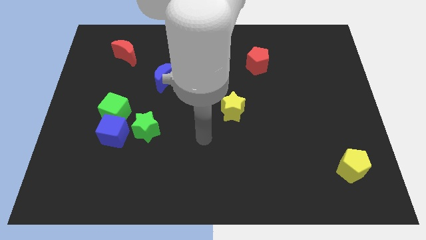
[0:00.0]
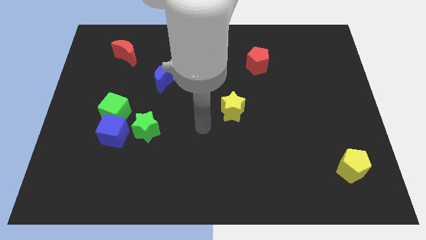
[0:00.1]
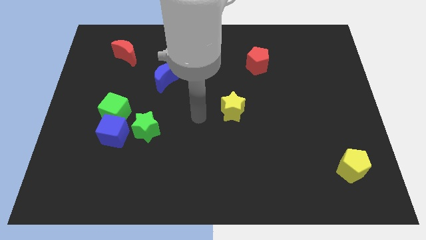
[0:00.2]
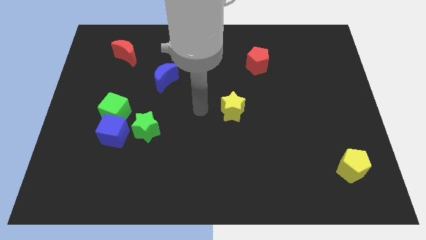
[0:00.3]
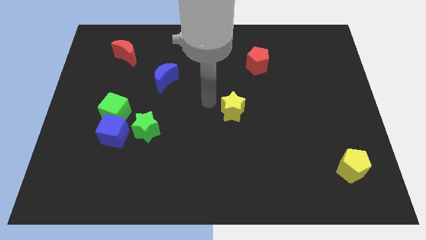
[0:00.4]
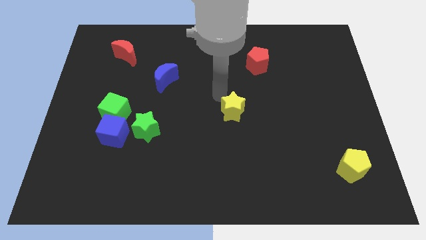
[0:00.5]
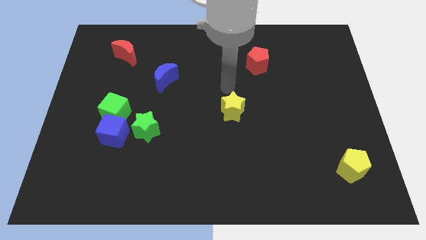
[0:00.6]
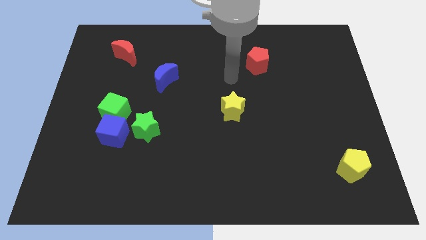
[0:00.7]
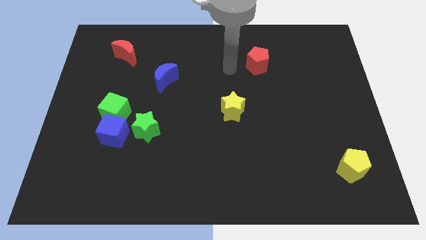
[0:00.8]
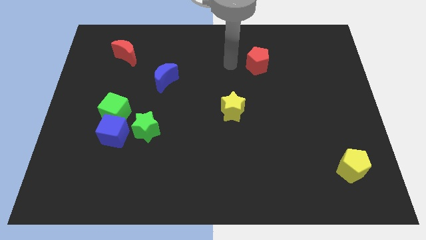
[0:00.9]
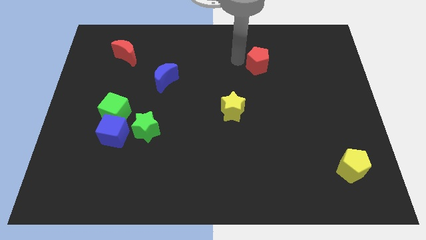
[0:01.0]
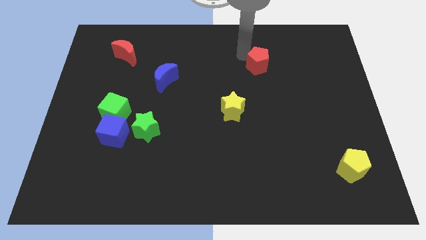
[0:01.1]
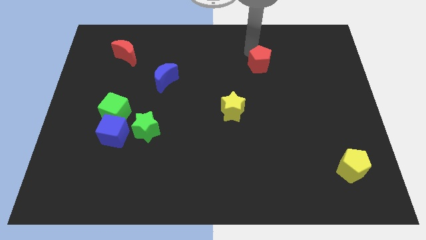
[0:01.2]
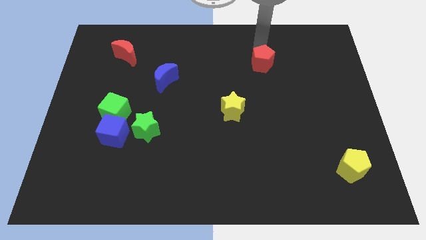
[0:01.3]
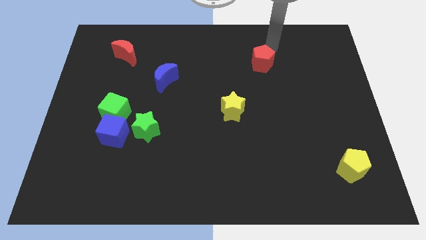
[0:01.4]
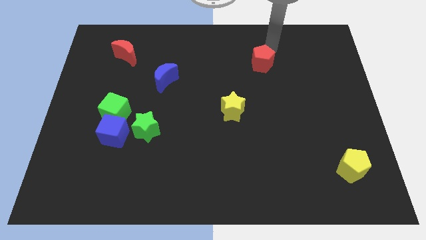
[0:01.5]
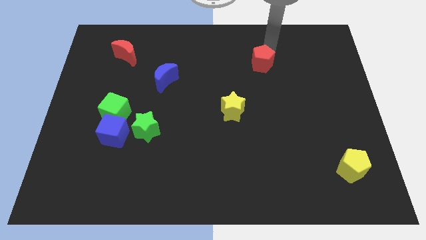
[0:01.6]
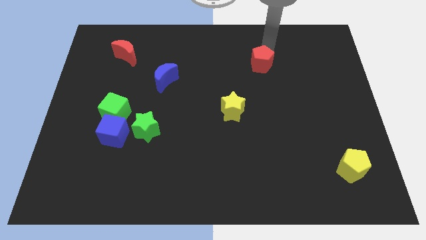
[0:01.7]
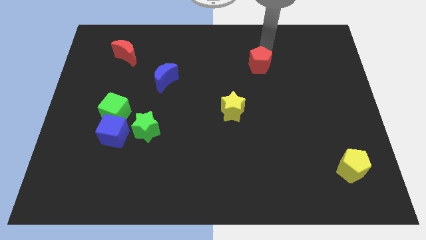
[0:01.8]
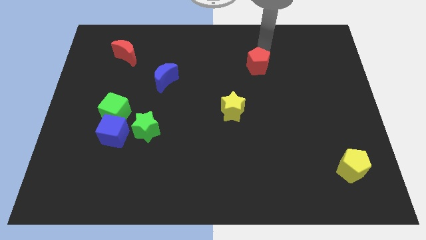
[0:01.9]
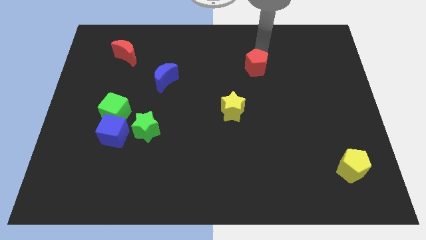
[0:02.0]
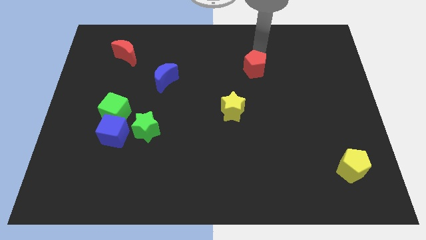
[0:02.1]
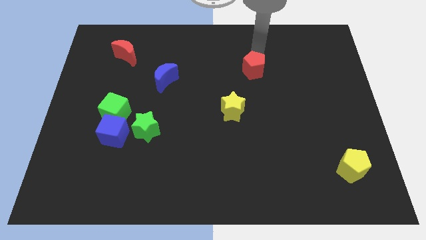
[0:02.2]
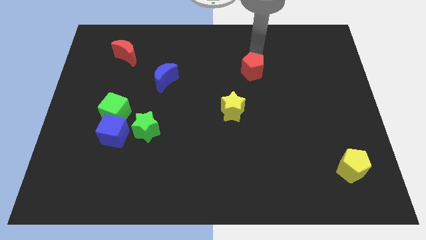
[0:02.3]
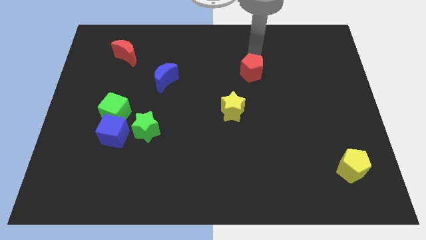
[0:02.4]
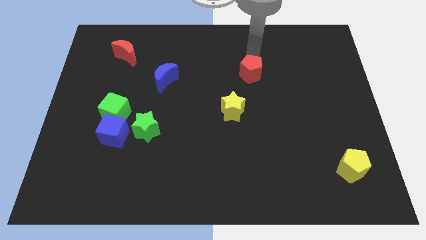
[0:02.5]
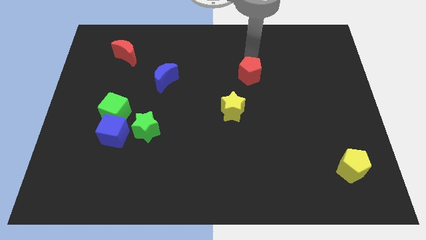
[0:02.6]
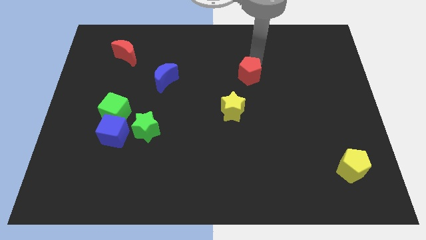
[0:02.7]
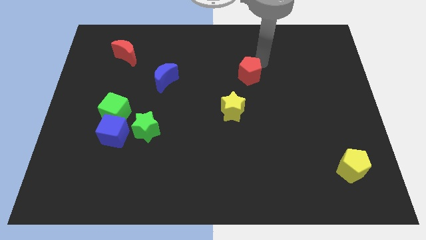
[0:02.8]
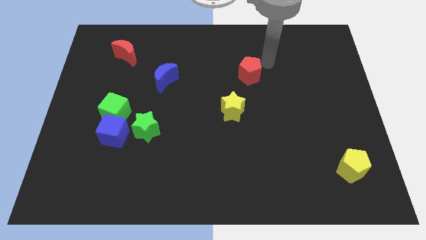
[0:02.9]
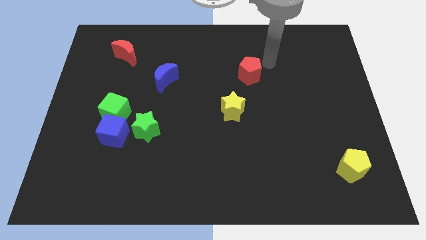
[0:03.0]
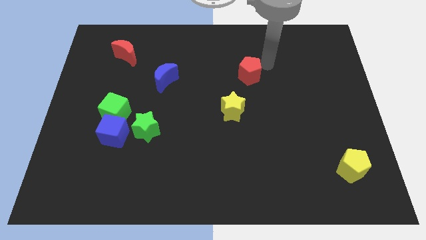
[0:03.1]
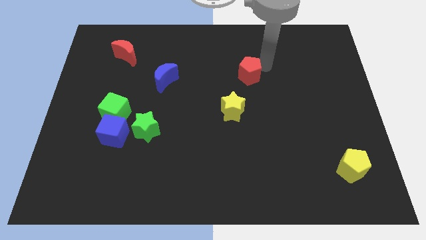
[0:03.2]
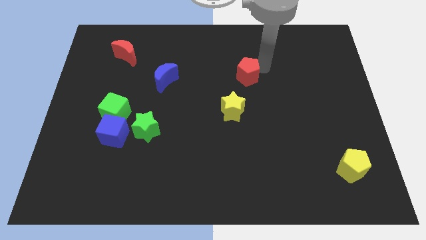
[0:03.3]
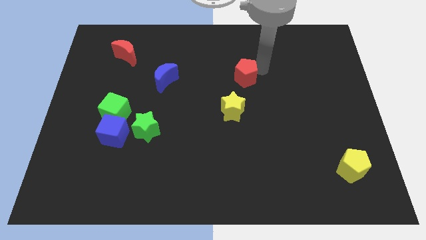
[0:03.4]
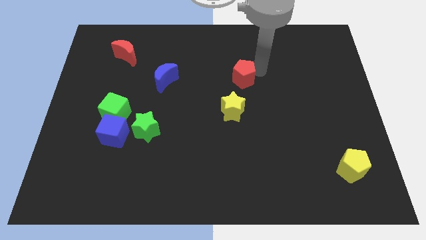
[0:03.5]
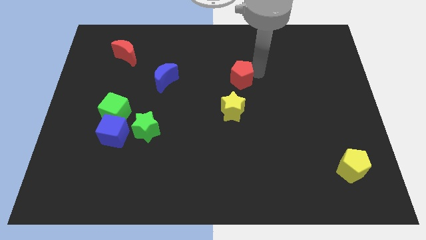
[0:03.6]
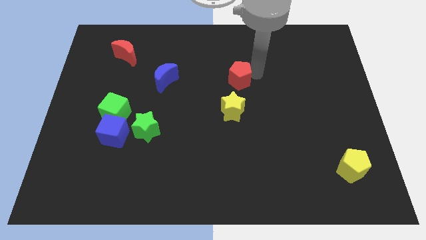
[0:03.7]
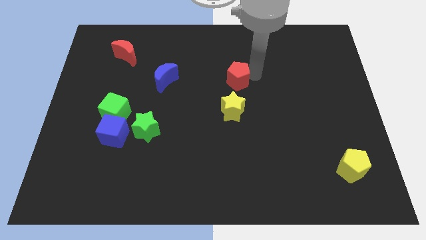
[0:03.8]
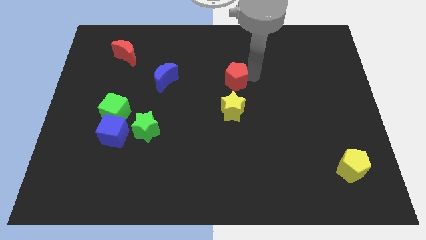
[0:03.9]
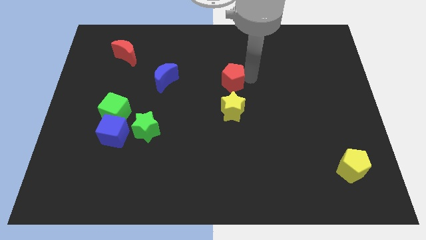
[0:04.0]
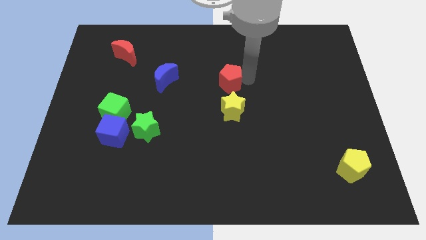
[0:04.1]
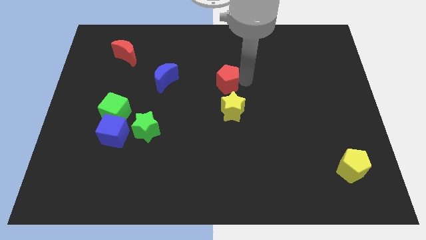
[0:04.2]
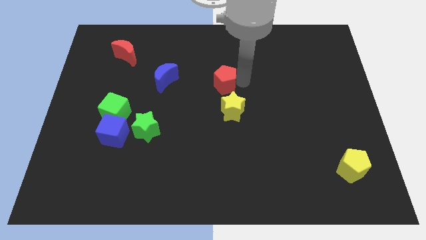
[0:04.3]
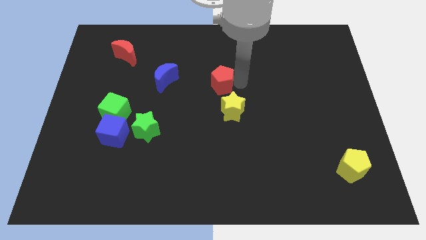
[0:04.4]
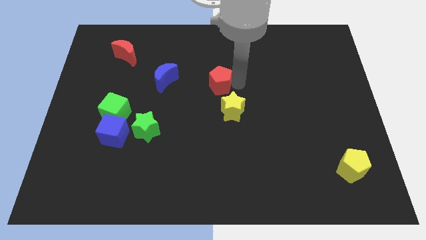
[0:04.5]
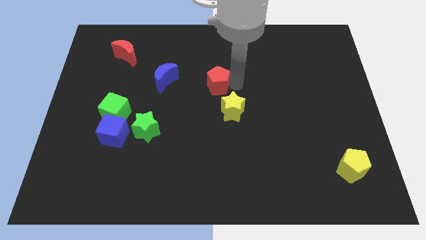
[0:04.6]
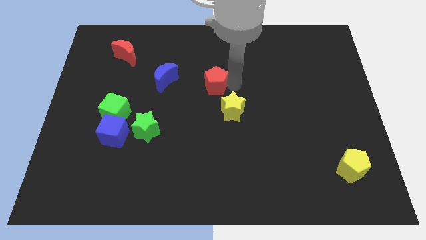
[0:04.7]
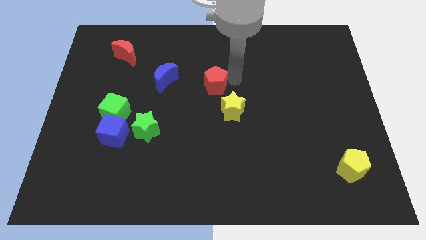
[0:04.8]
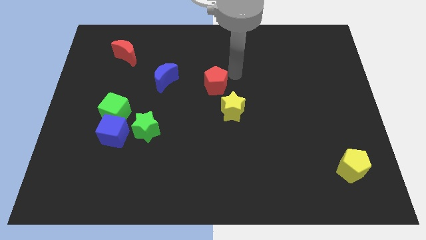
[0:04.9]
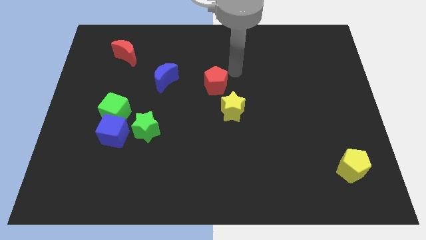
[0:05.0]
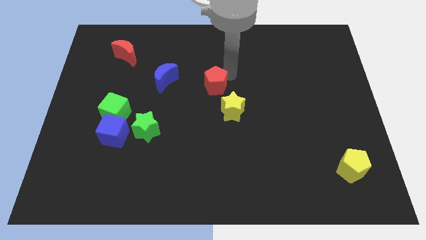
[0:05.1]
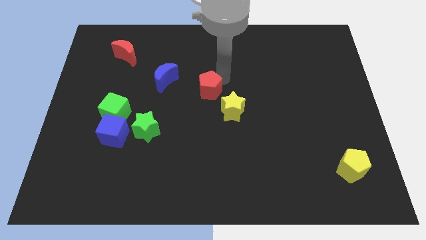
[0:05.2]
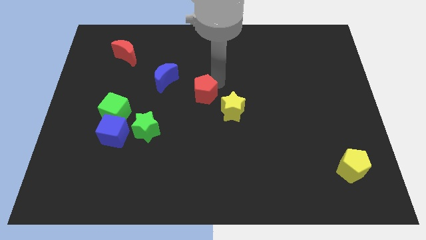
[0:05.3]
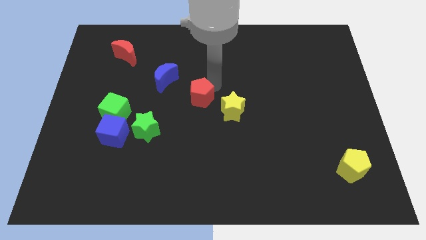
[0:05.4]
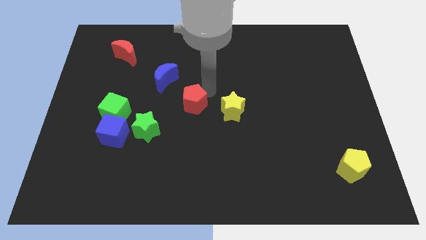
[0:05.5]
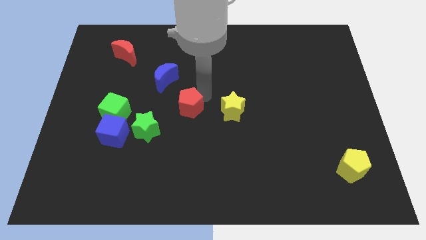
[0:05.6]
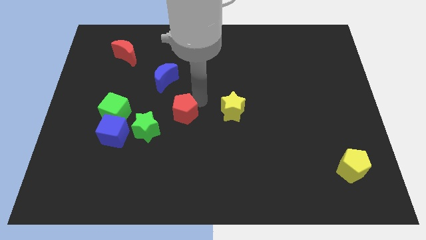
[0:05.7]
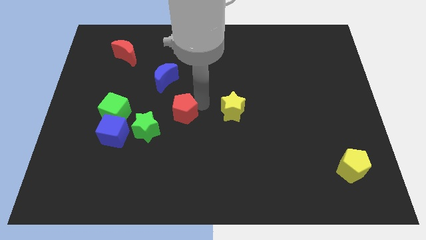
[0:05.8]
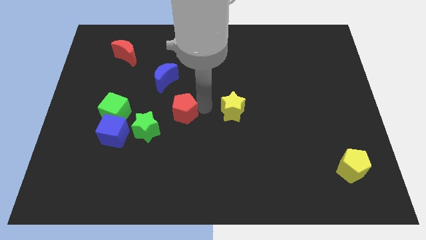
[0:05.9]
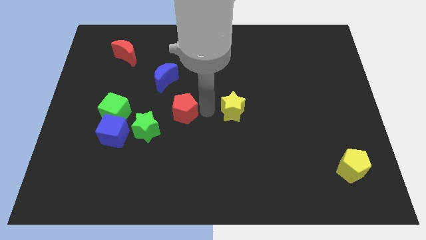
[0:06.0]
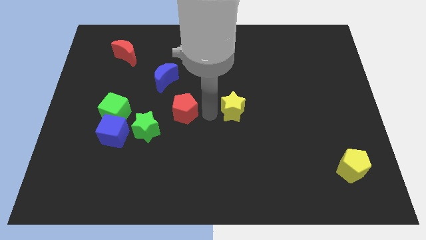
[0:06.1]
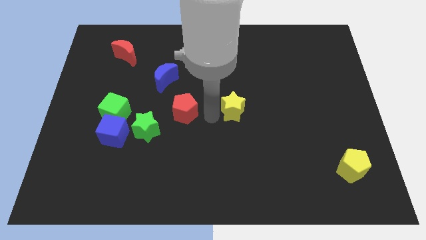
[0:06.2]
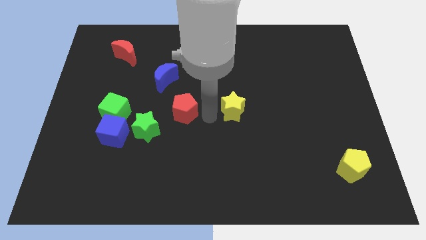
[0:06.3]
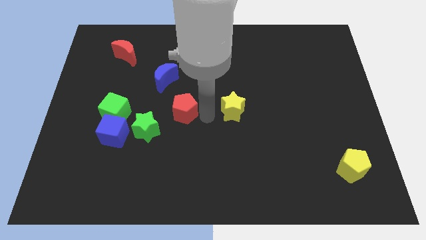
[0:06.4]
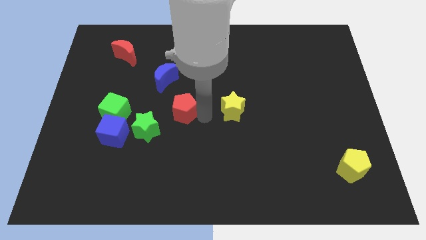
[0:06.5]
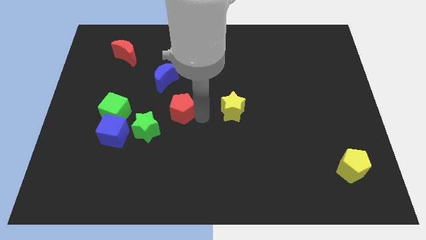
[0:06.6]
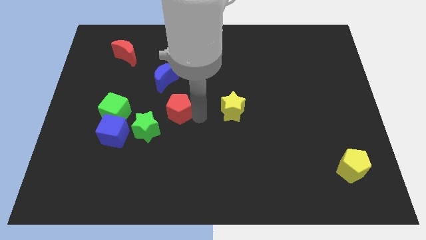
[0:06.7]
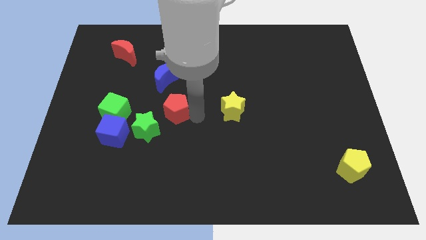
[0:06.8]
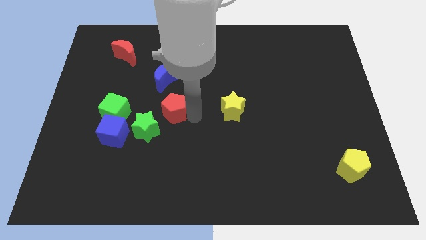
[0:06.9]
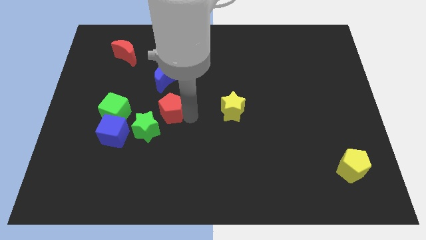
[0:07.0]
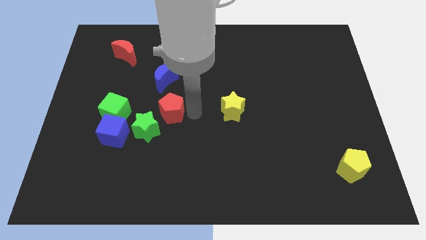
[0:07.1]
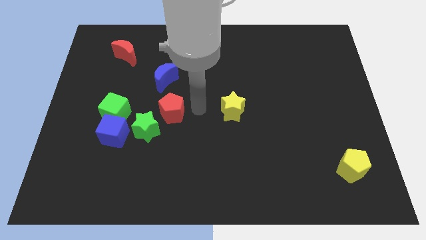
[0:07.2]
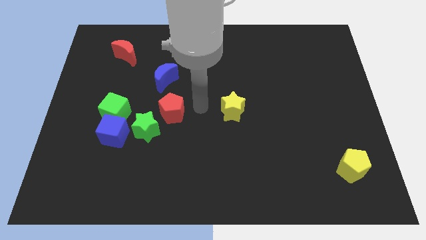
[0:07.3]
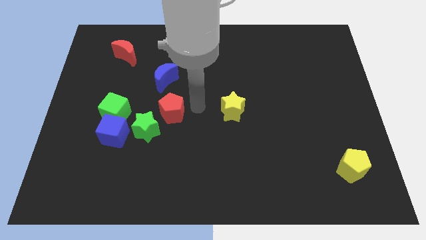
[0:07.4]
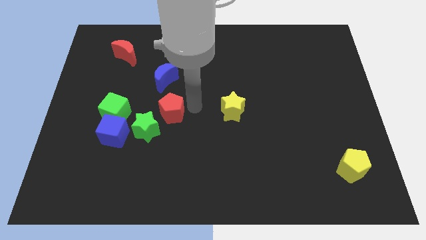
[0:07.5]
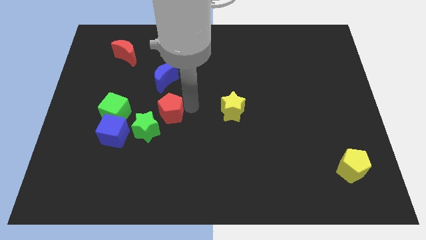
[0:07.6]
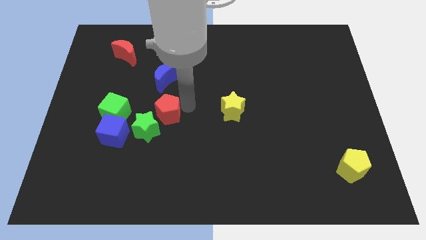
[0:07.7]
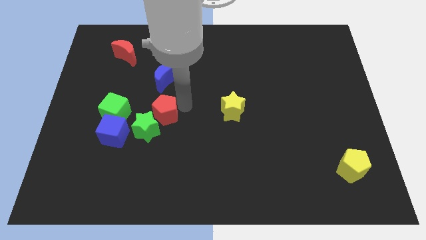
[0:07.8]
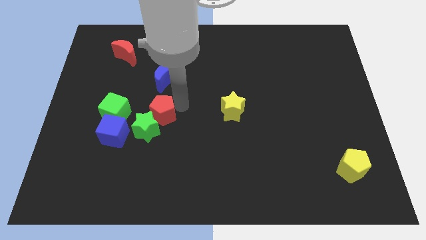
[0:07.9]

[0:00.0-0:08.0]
put the red pentagon to the top right of the blue cube

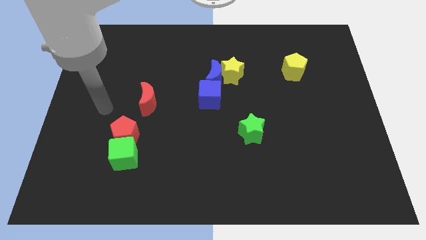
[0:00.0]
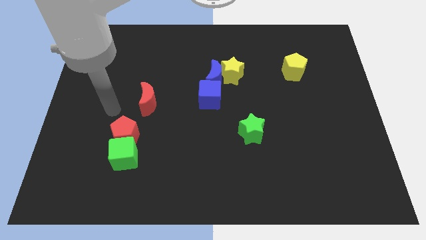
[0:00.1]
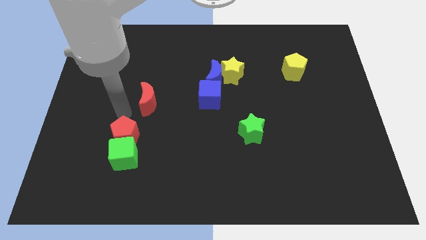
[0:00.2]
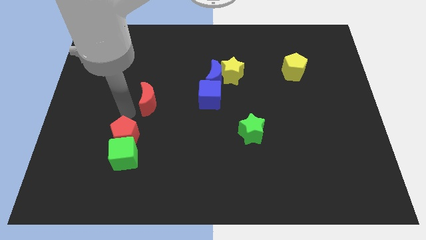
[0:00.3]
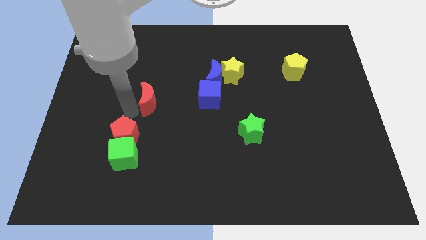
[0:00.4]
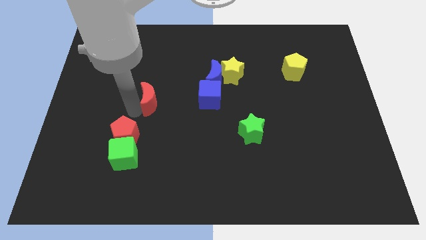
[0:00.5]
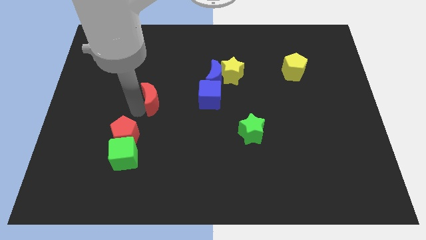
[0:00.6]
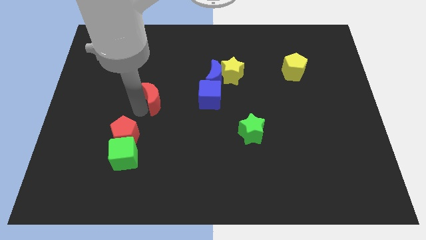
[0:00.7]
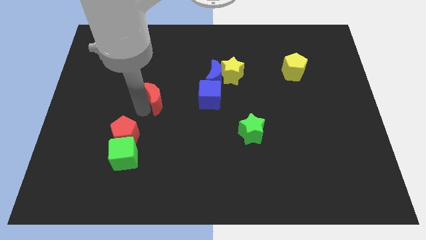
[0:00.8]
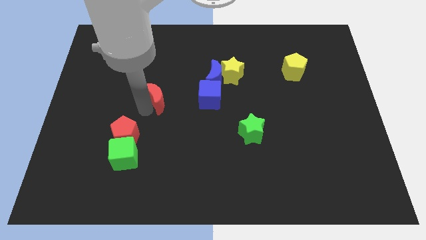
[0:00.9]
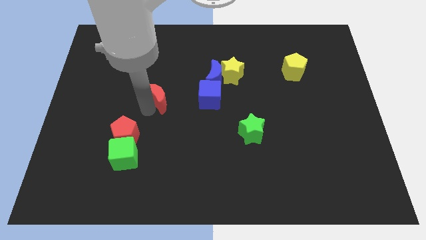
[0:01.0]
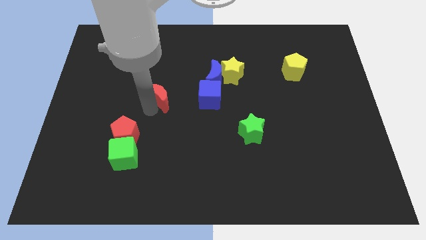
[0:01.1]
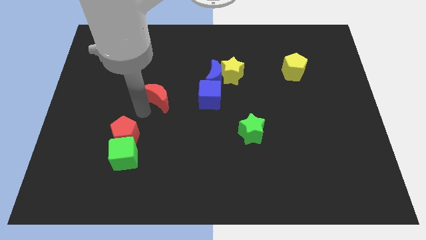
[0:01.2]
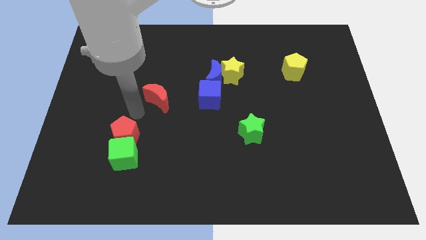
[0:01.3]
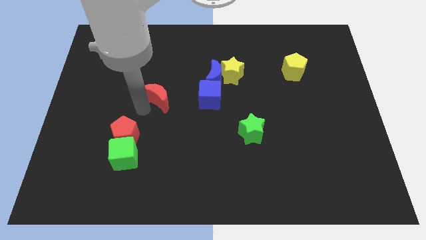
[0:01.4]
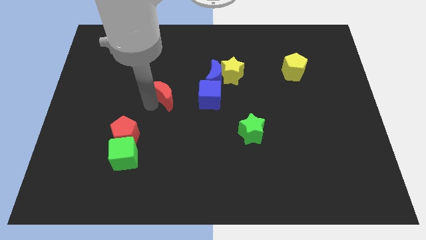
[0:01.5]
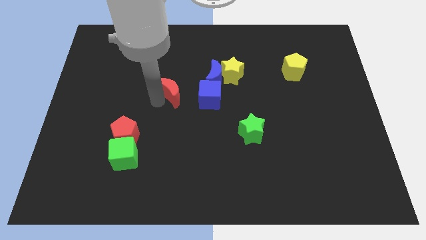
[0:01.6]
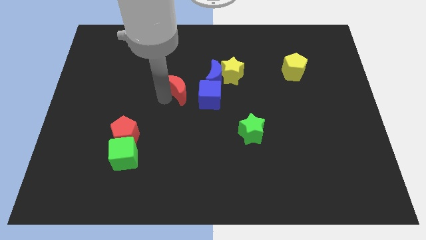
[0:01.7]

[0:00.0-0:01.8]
slide the red moon to the top left of the blue cube
